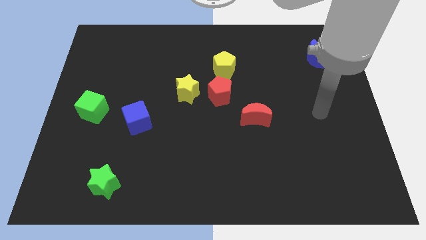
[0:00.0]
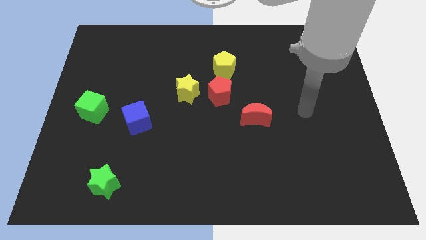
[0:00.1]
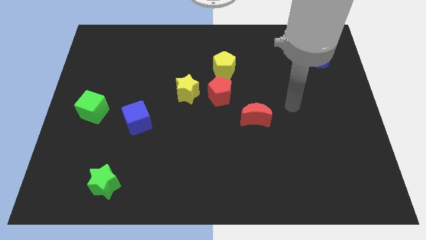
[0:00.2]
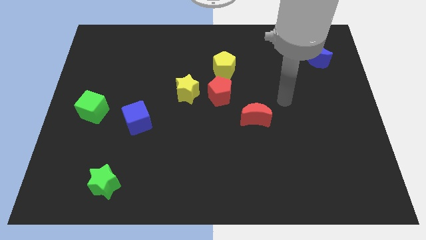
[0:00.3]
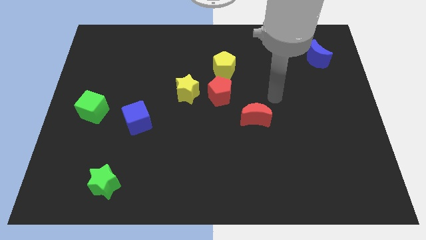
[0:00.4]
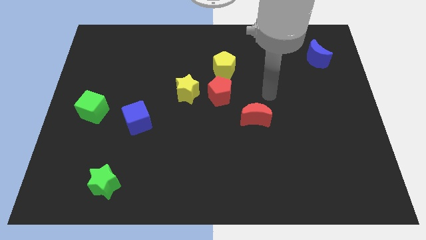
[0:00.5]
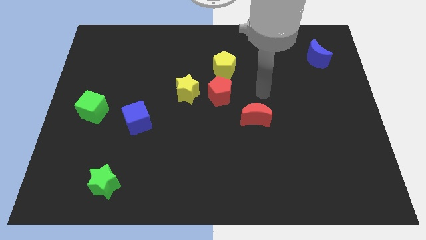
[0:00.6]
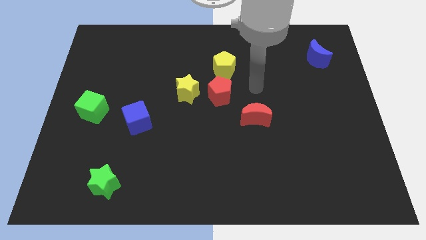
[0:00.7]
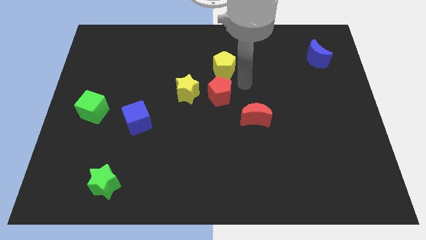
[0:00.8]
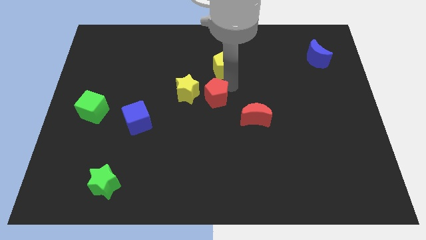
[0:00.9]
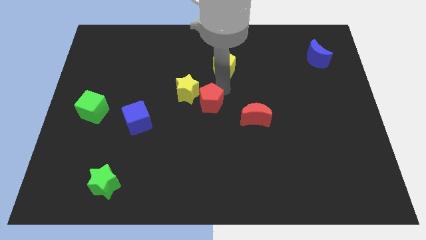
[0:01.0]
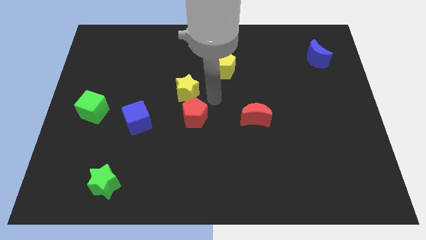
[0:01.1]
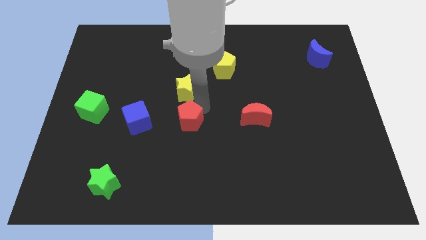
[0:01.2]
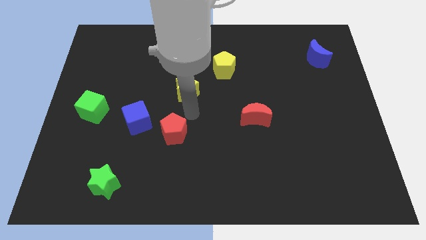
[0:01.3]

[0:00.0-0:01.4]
move the yellow star away from the red pentagon

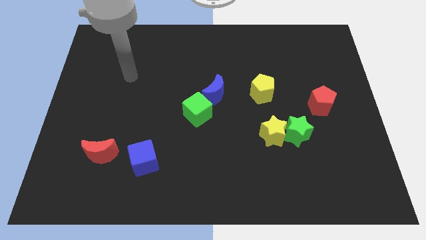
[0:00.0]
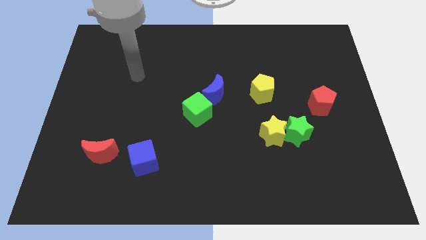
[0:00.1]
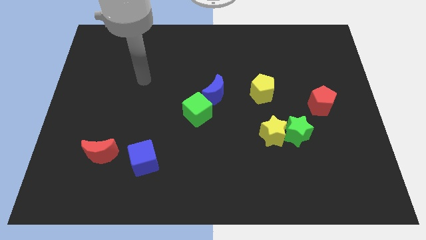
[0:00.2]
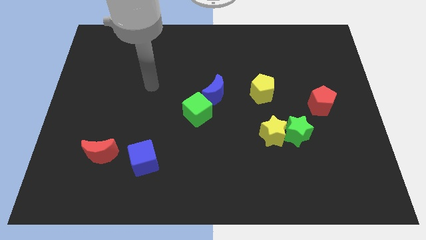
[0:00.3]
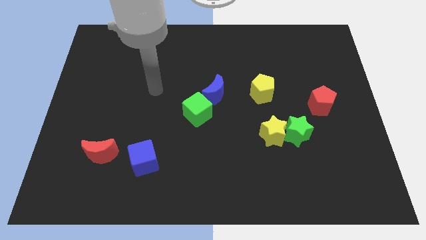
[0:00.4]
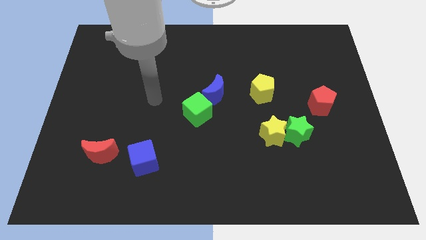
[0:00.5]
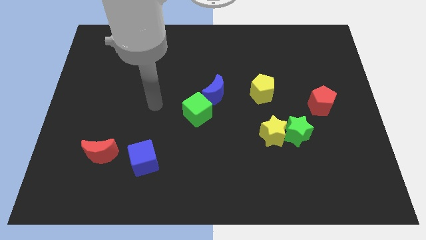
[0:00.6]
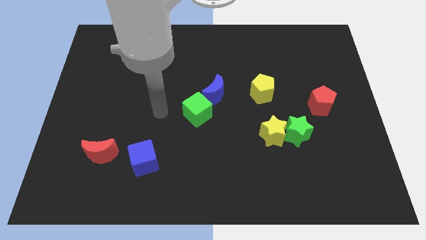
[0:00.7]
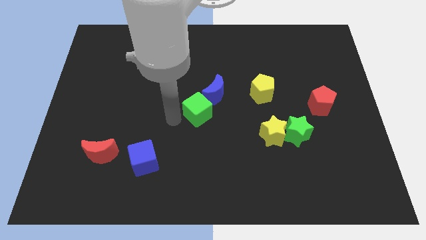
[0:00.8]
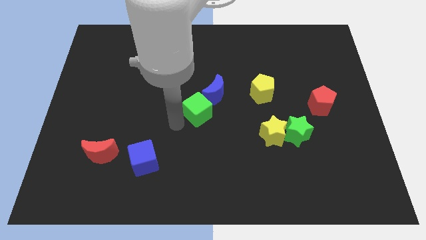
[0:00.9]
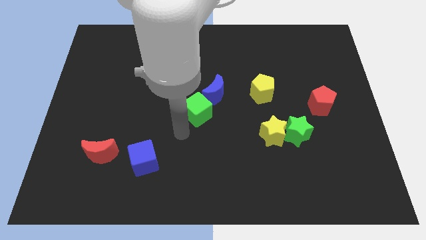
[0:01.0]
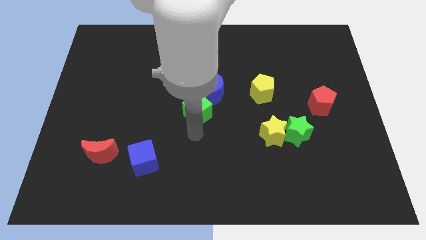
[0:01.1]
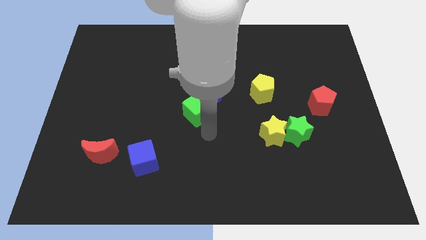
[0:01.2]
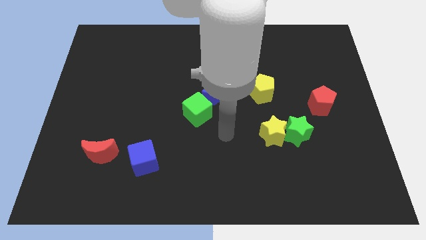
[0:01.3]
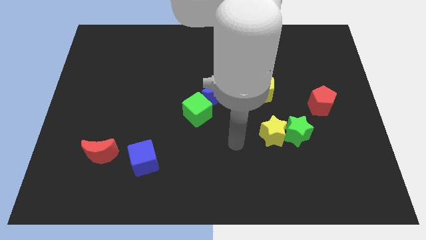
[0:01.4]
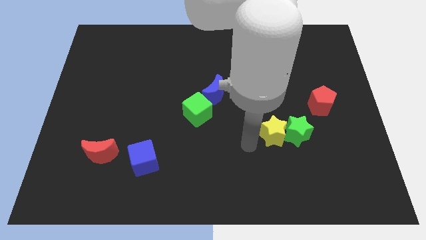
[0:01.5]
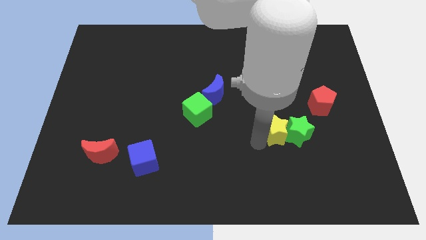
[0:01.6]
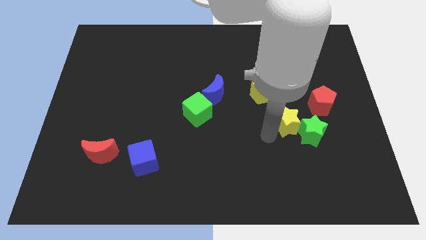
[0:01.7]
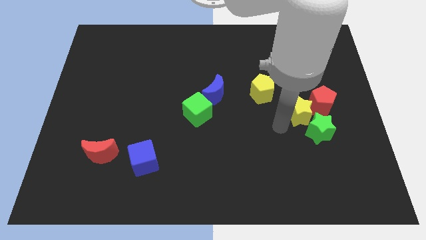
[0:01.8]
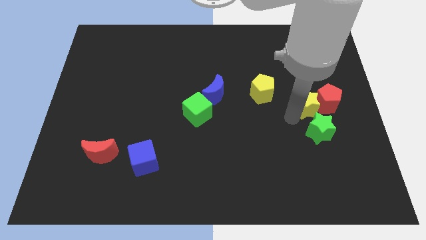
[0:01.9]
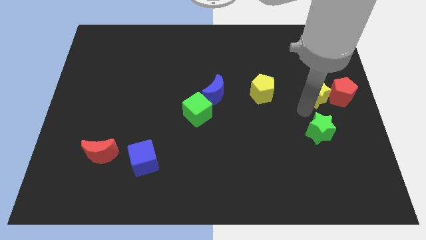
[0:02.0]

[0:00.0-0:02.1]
pull the green star apart from the yellow star

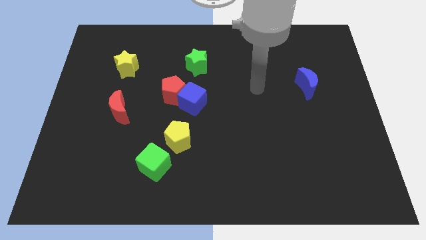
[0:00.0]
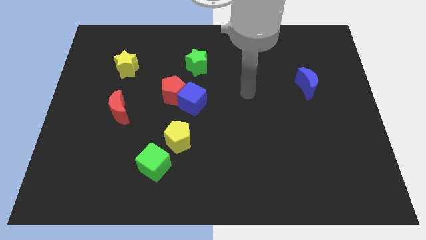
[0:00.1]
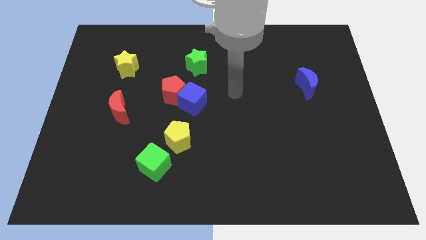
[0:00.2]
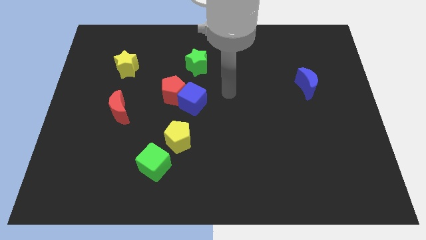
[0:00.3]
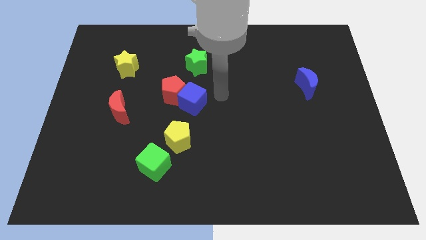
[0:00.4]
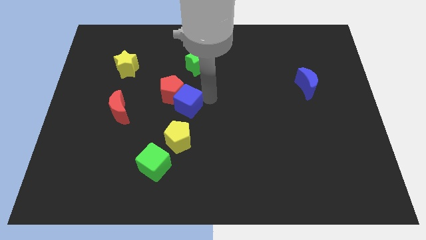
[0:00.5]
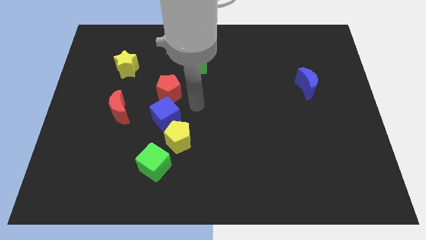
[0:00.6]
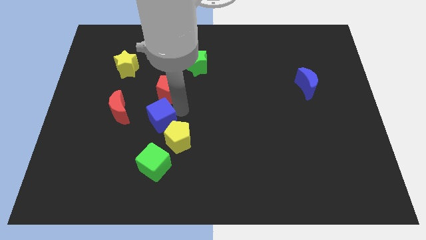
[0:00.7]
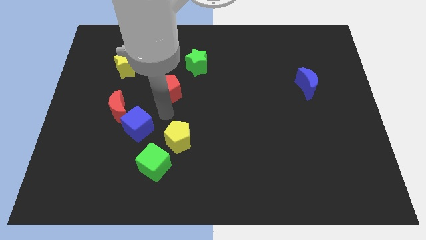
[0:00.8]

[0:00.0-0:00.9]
separate the red pentagon from the blue cube

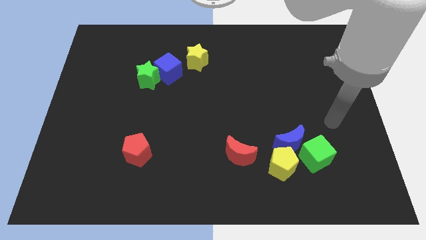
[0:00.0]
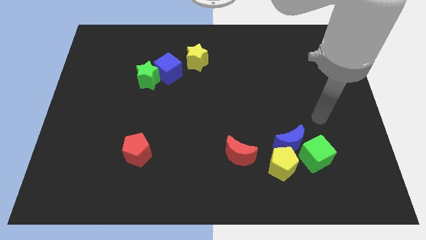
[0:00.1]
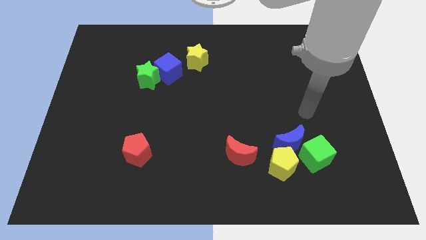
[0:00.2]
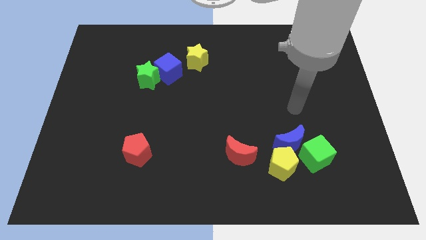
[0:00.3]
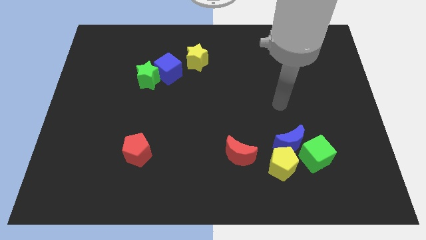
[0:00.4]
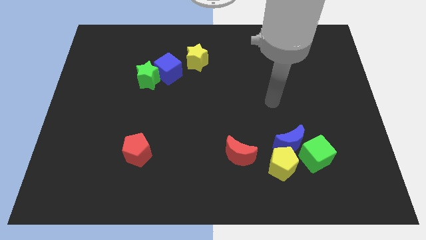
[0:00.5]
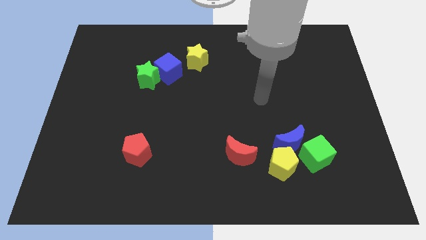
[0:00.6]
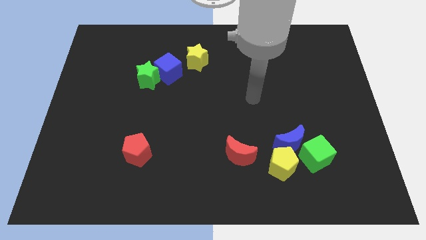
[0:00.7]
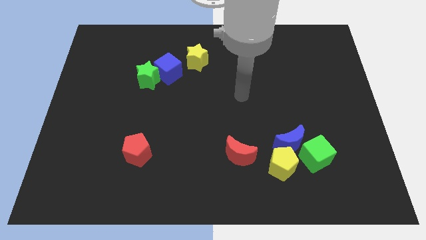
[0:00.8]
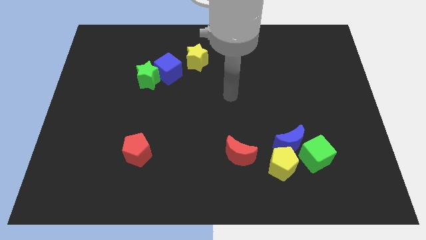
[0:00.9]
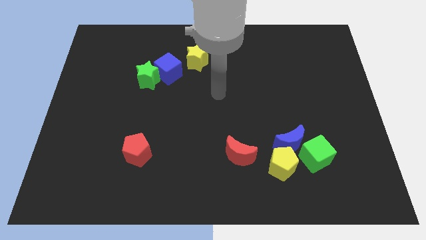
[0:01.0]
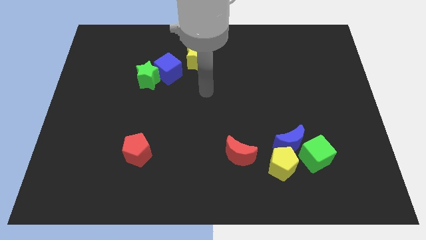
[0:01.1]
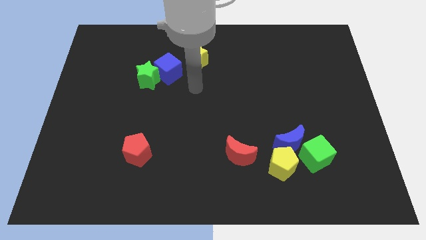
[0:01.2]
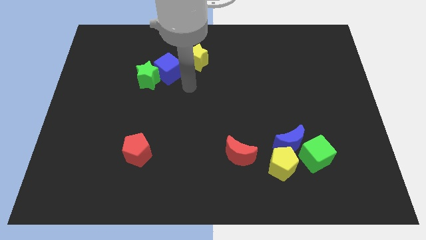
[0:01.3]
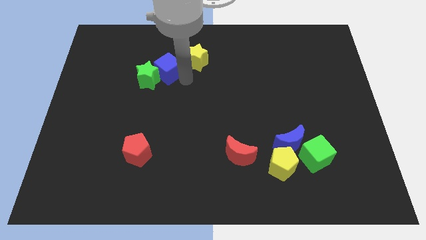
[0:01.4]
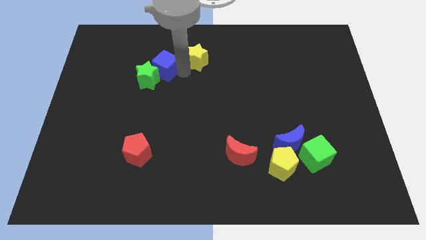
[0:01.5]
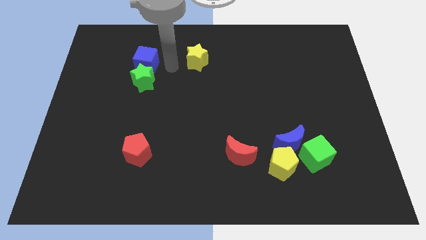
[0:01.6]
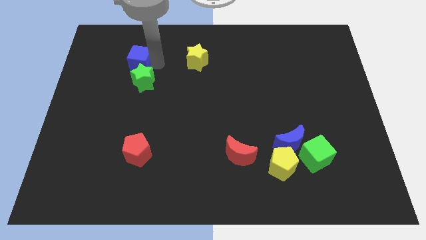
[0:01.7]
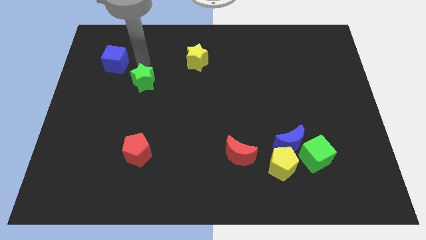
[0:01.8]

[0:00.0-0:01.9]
move the green star away from the blue cube

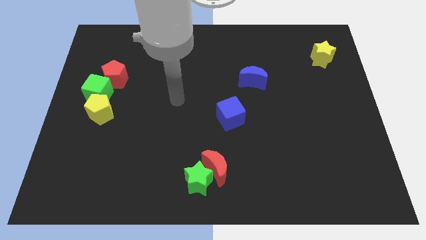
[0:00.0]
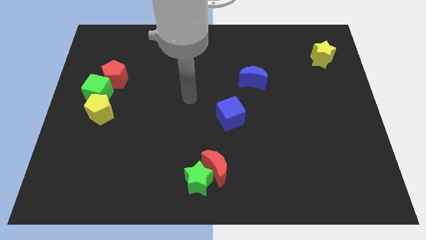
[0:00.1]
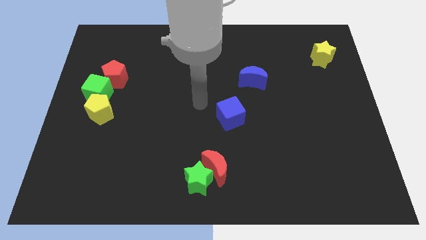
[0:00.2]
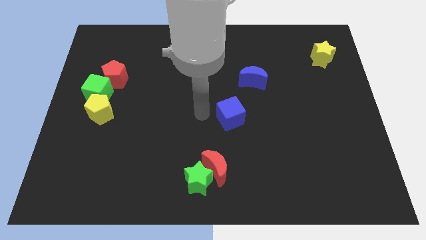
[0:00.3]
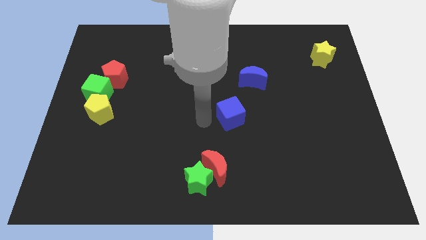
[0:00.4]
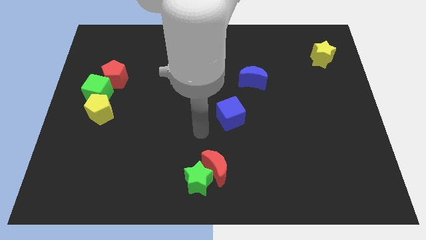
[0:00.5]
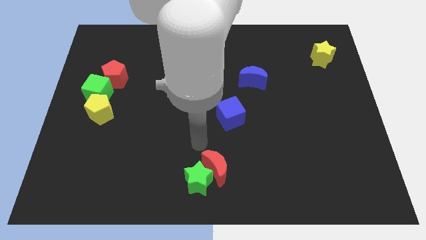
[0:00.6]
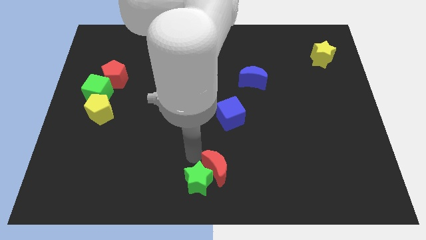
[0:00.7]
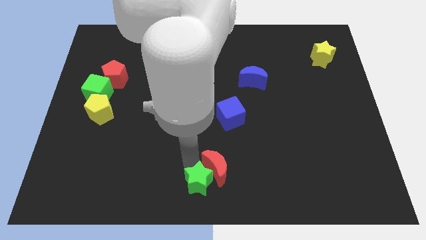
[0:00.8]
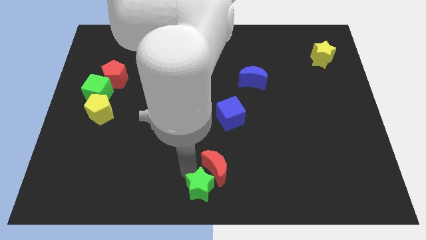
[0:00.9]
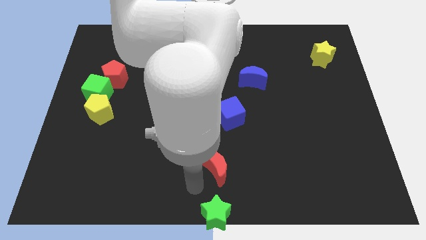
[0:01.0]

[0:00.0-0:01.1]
move the red moon away from the green star

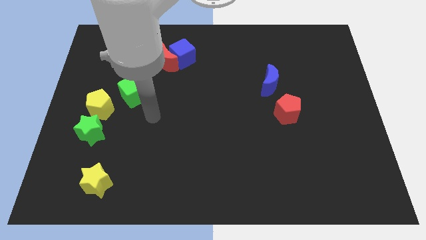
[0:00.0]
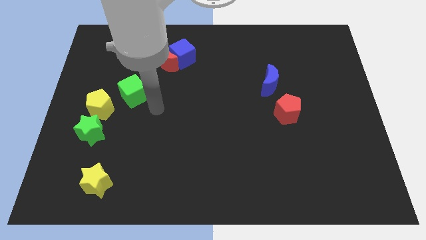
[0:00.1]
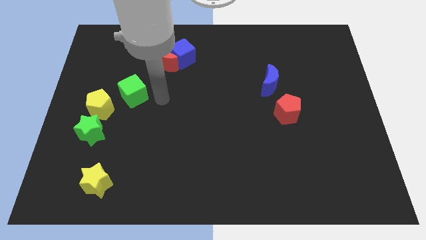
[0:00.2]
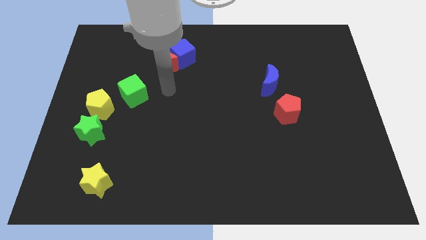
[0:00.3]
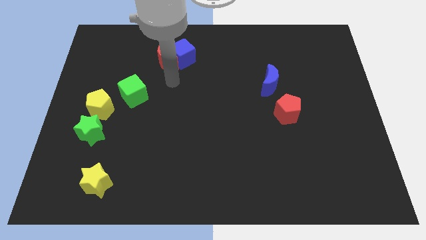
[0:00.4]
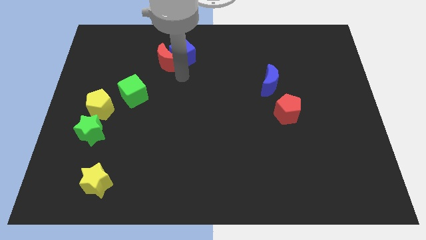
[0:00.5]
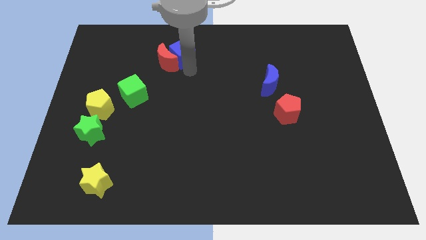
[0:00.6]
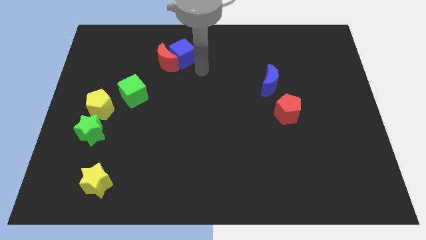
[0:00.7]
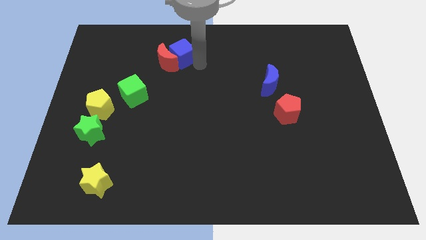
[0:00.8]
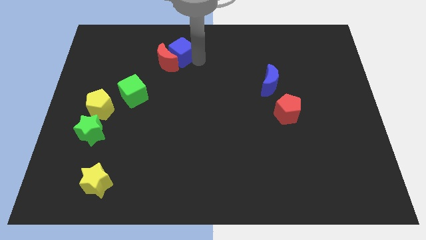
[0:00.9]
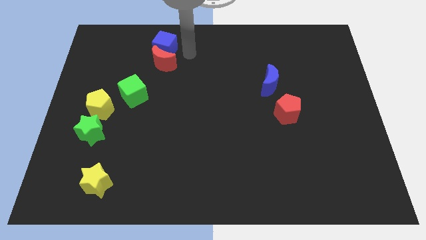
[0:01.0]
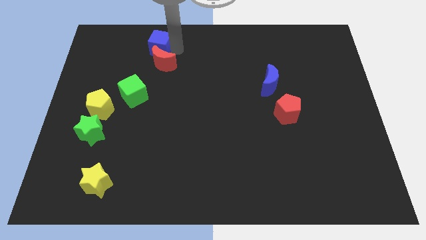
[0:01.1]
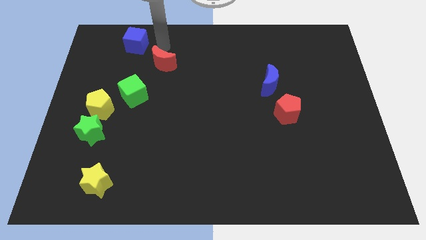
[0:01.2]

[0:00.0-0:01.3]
separate the red moon from the blue cube

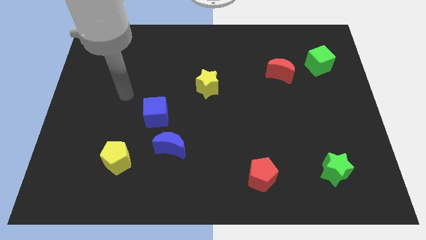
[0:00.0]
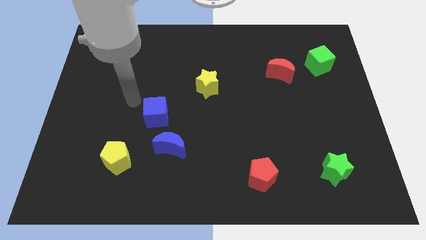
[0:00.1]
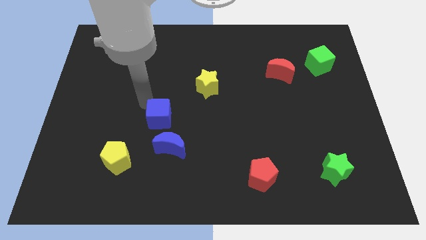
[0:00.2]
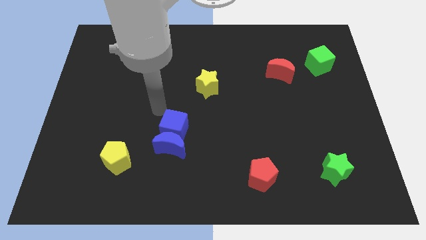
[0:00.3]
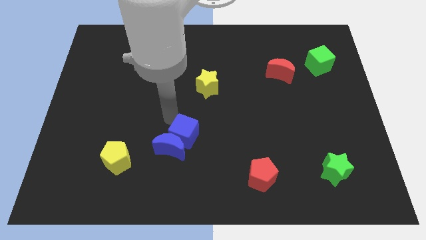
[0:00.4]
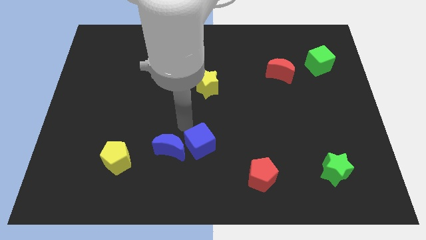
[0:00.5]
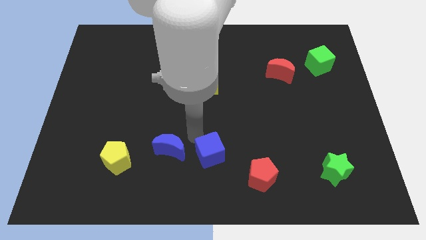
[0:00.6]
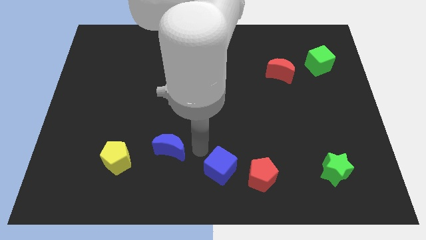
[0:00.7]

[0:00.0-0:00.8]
pull the blue moon apart from the blue cube
